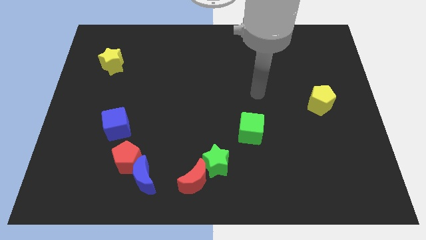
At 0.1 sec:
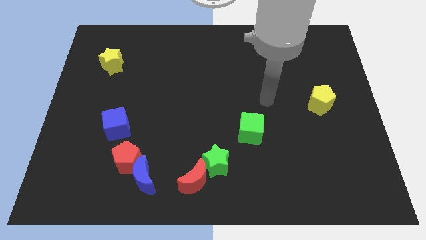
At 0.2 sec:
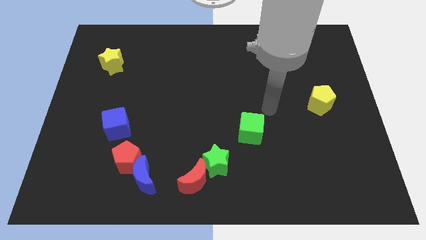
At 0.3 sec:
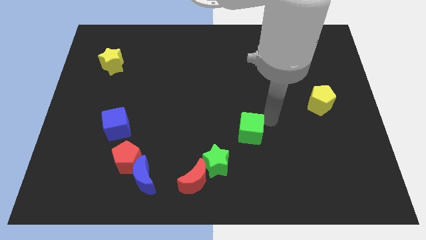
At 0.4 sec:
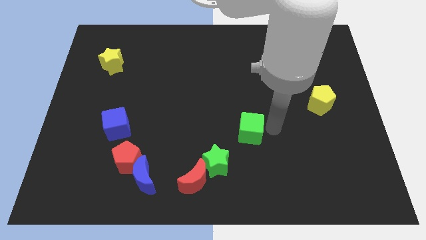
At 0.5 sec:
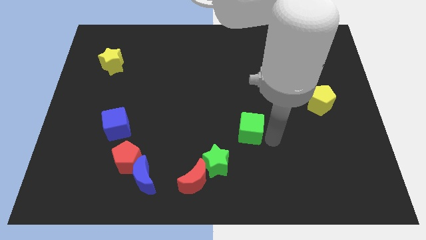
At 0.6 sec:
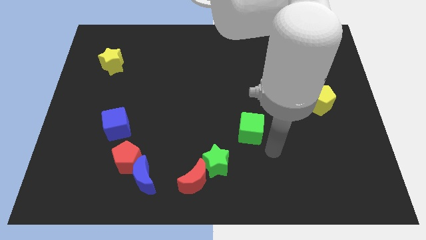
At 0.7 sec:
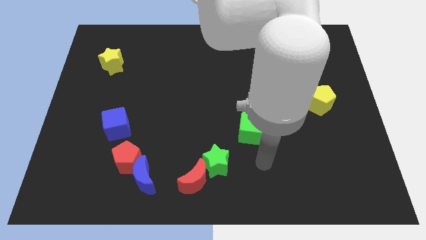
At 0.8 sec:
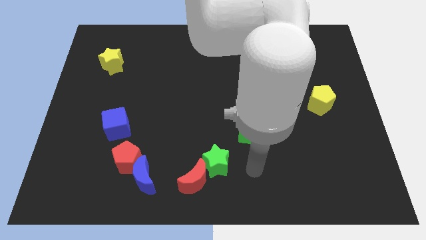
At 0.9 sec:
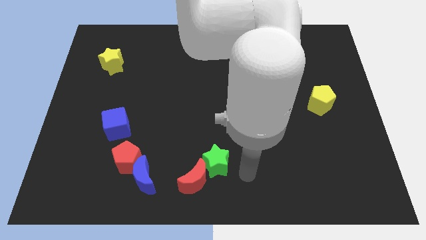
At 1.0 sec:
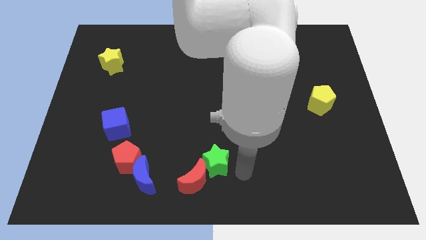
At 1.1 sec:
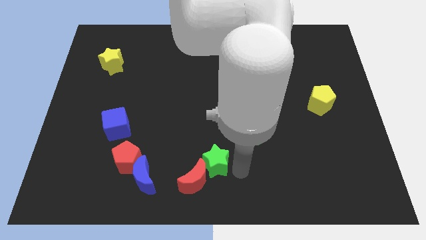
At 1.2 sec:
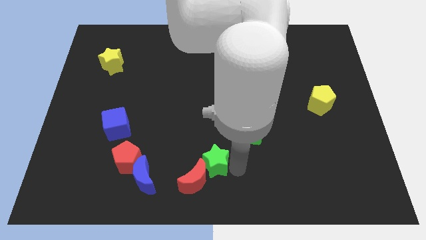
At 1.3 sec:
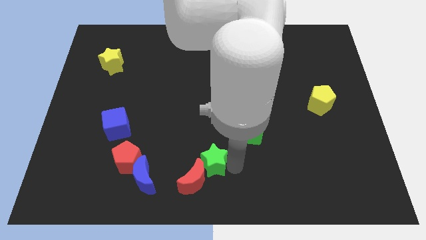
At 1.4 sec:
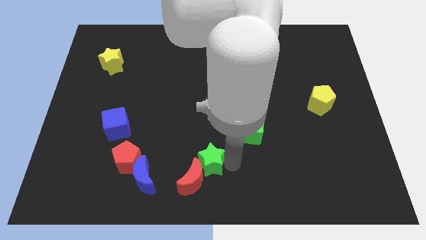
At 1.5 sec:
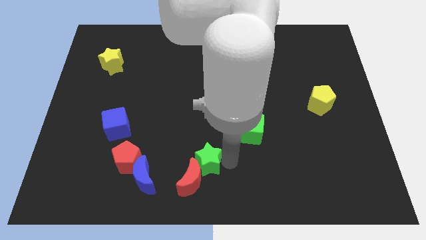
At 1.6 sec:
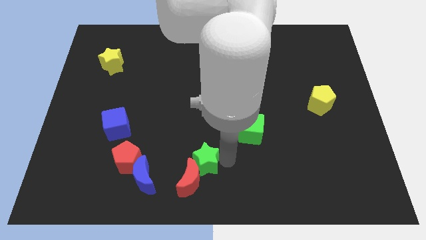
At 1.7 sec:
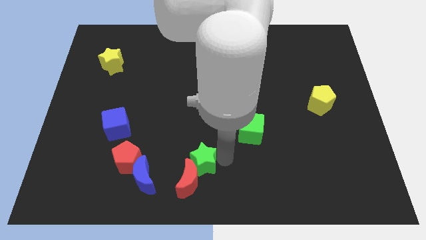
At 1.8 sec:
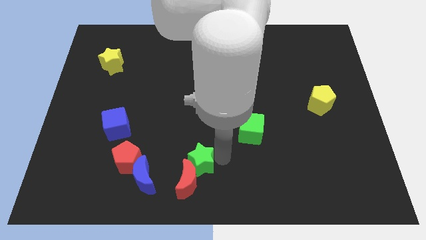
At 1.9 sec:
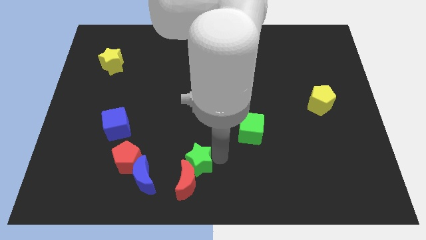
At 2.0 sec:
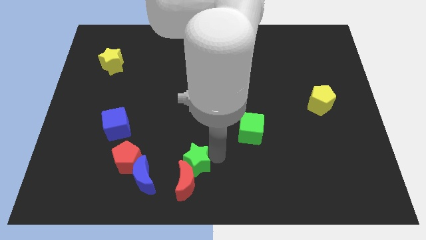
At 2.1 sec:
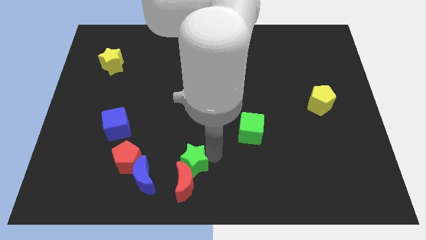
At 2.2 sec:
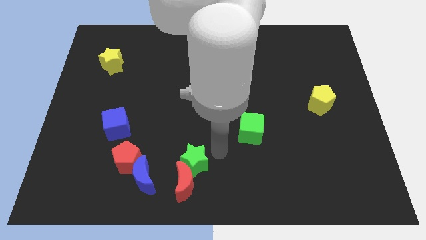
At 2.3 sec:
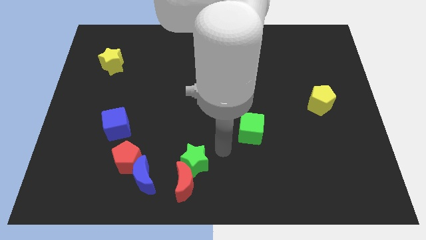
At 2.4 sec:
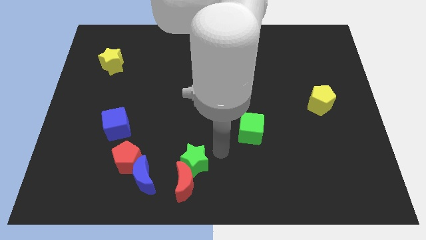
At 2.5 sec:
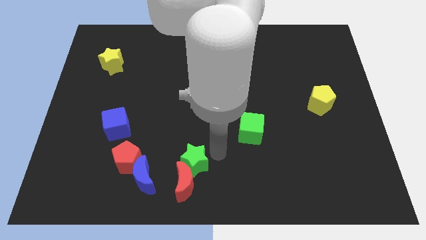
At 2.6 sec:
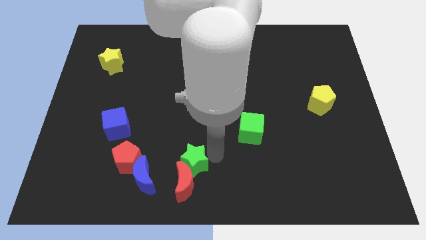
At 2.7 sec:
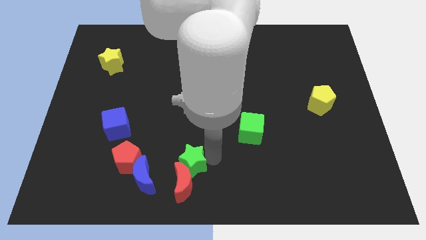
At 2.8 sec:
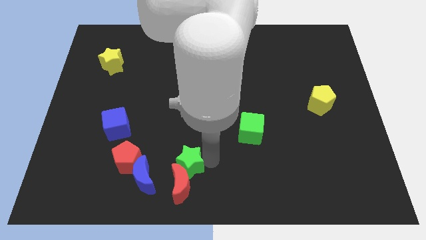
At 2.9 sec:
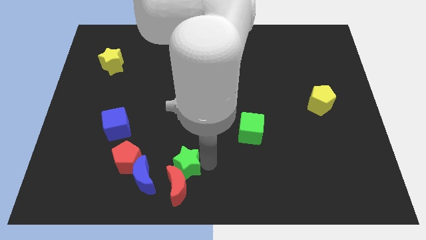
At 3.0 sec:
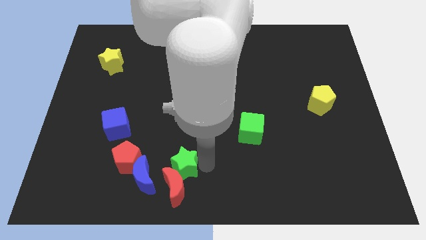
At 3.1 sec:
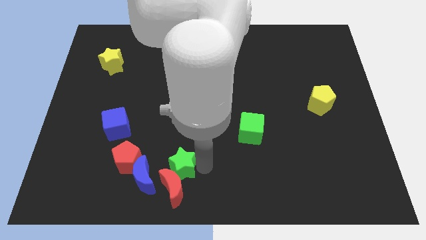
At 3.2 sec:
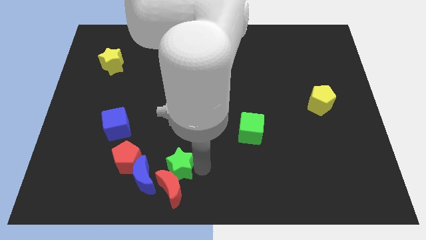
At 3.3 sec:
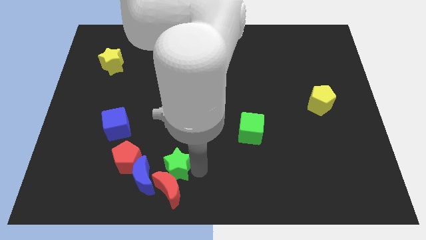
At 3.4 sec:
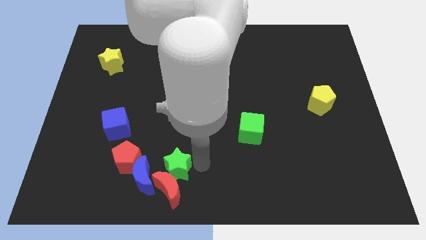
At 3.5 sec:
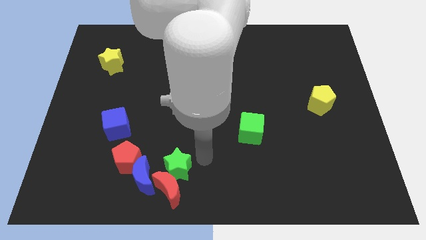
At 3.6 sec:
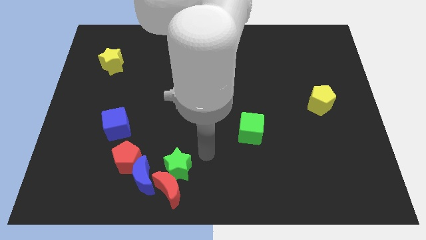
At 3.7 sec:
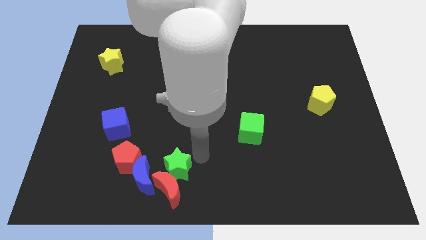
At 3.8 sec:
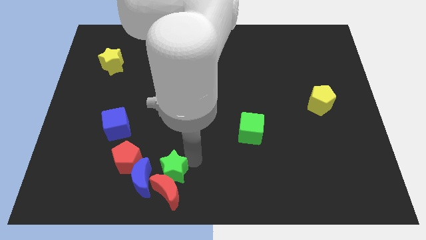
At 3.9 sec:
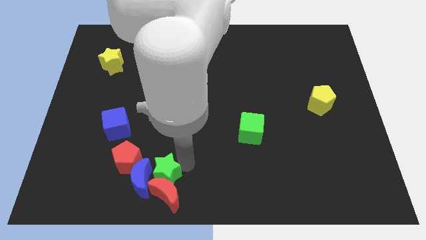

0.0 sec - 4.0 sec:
put the green star to the bottom right side of the red pentagon

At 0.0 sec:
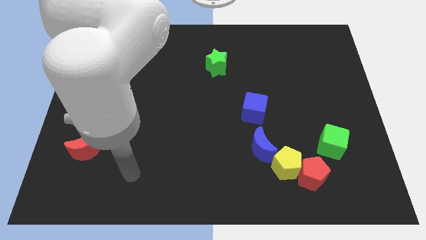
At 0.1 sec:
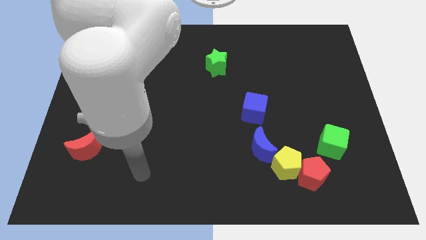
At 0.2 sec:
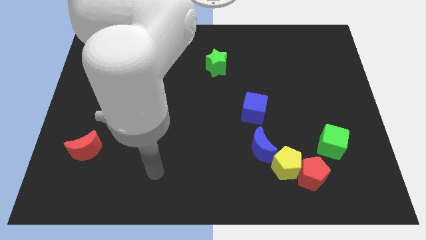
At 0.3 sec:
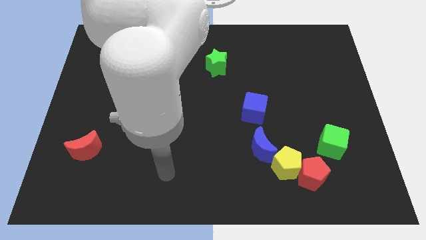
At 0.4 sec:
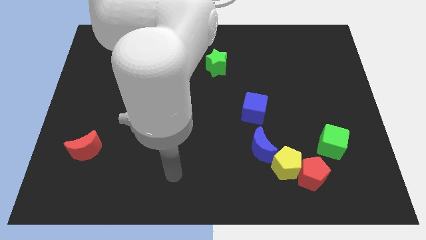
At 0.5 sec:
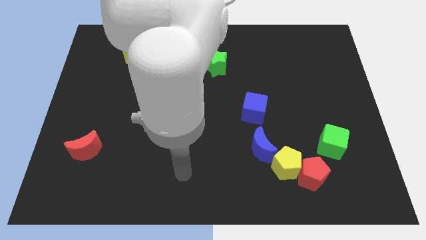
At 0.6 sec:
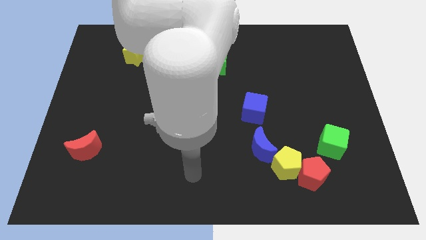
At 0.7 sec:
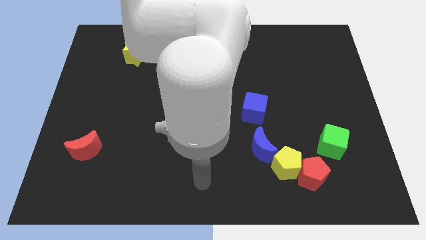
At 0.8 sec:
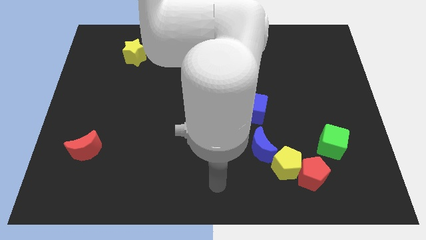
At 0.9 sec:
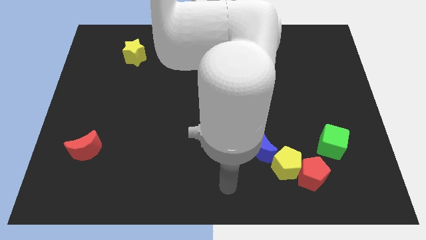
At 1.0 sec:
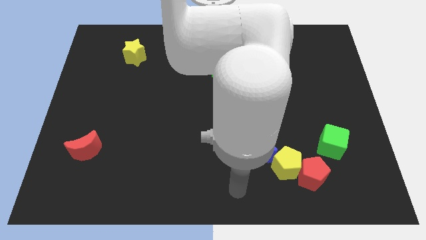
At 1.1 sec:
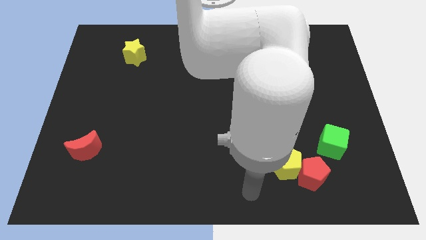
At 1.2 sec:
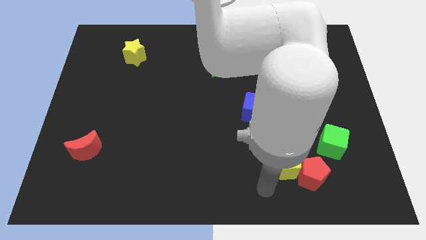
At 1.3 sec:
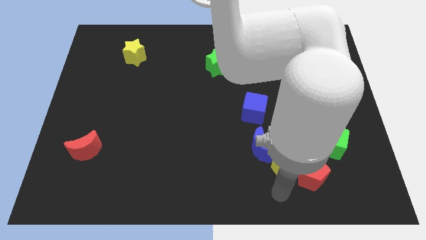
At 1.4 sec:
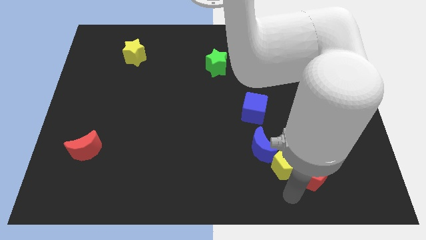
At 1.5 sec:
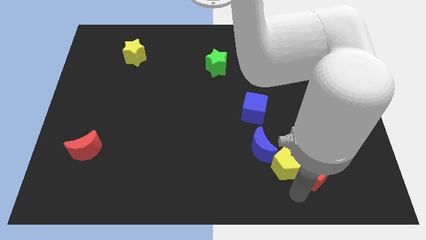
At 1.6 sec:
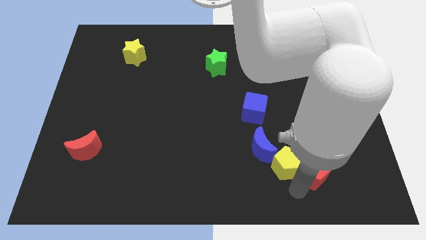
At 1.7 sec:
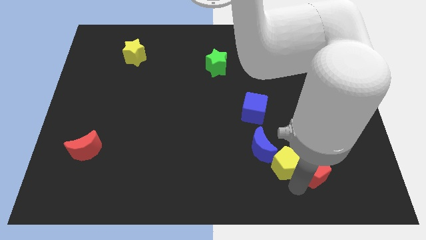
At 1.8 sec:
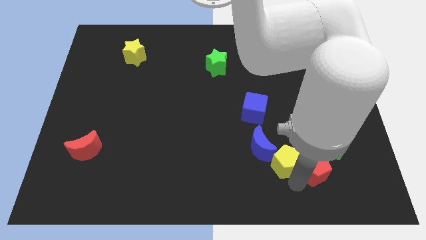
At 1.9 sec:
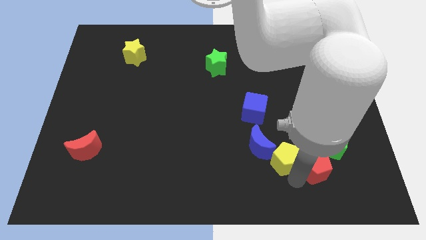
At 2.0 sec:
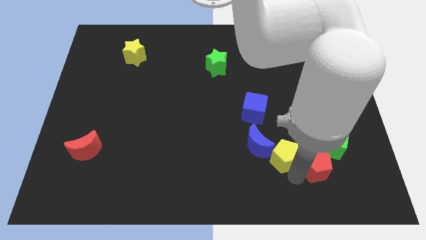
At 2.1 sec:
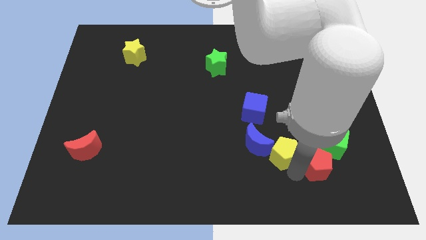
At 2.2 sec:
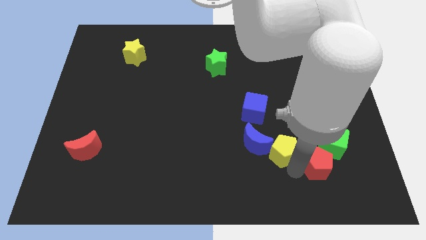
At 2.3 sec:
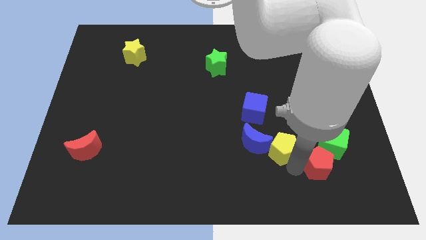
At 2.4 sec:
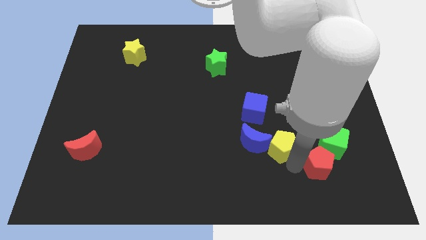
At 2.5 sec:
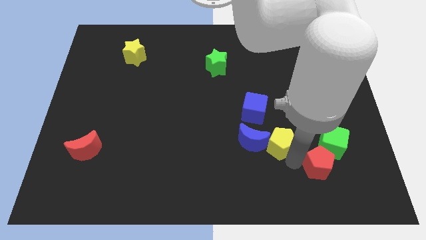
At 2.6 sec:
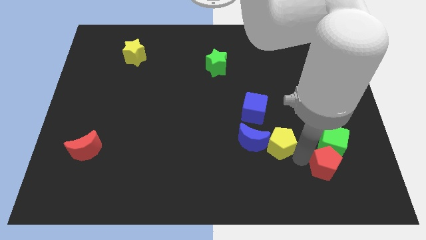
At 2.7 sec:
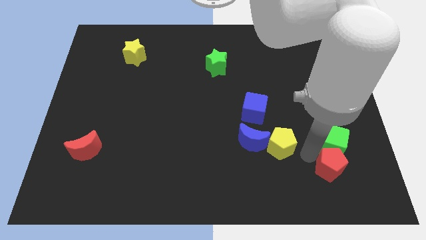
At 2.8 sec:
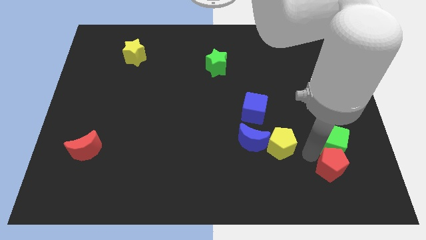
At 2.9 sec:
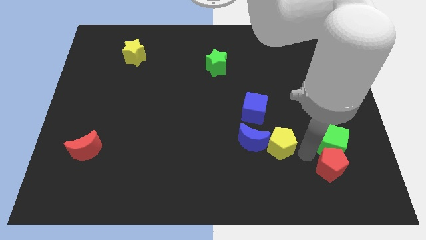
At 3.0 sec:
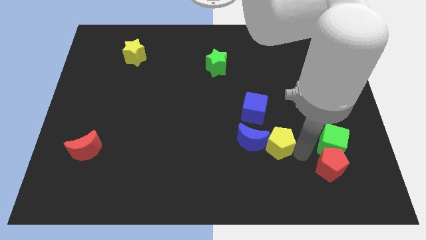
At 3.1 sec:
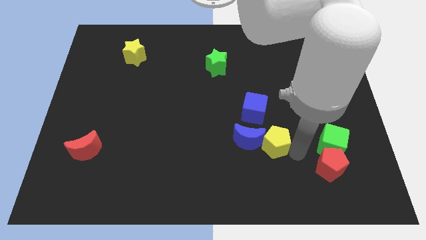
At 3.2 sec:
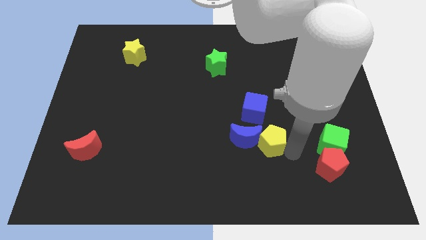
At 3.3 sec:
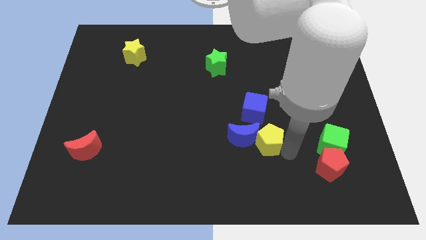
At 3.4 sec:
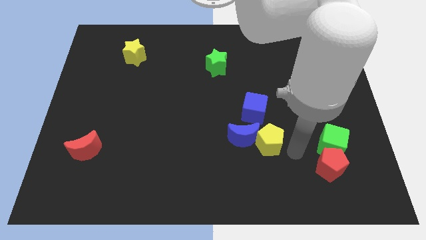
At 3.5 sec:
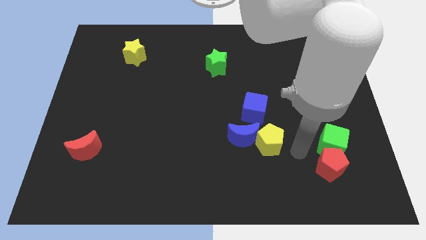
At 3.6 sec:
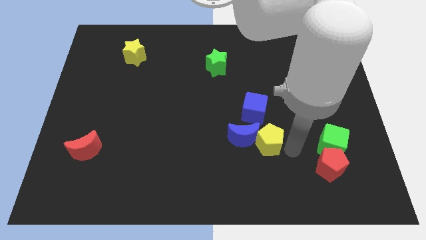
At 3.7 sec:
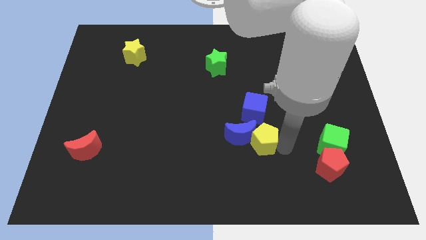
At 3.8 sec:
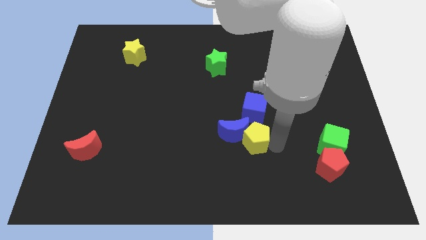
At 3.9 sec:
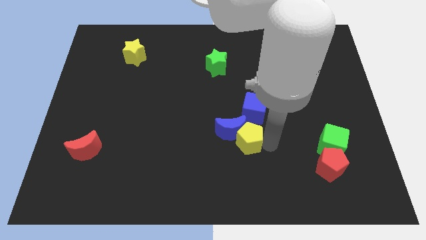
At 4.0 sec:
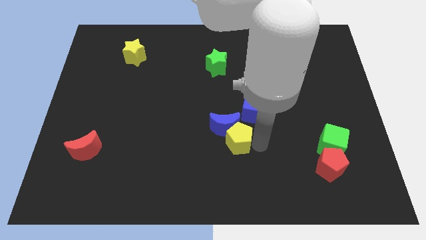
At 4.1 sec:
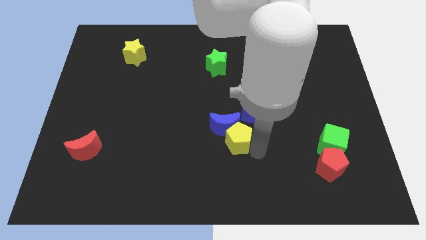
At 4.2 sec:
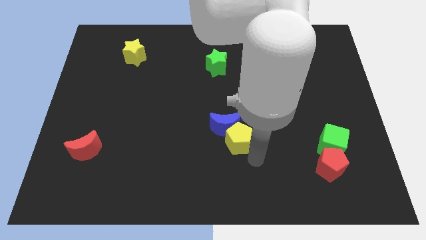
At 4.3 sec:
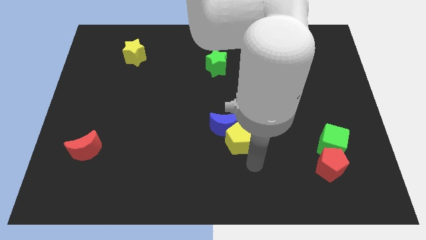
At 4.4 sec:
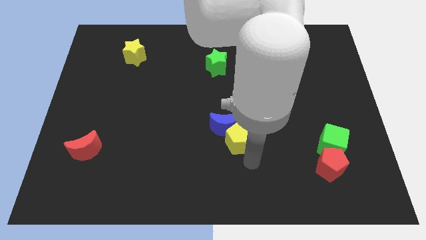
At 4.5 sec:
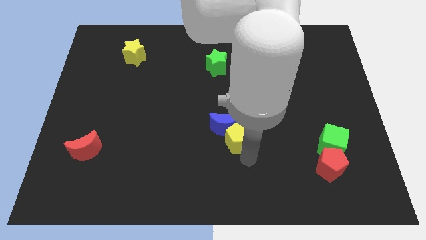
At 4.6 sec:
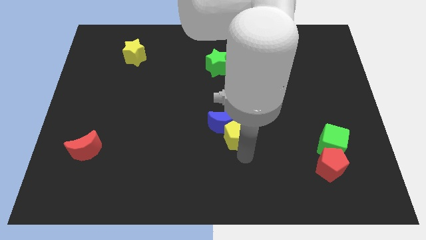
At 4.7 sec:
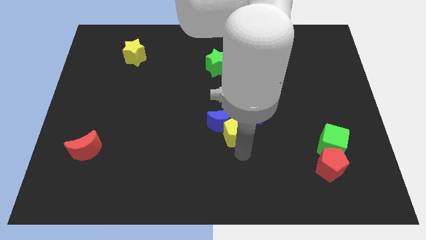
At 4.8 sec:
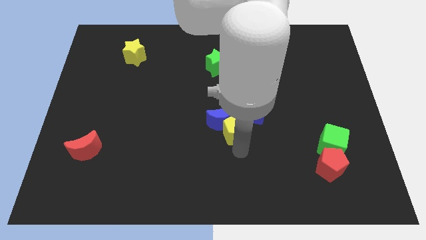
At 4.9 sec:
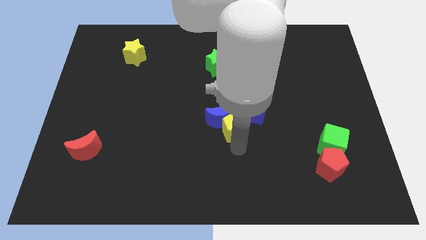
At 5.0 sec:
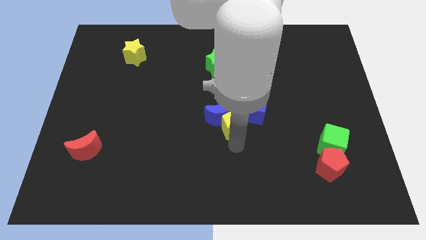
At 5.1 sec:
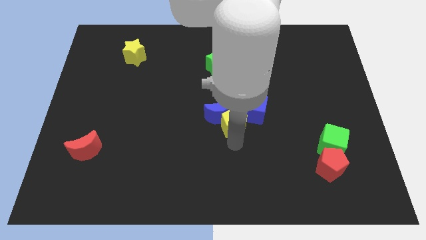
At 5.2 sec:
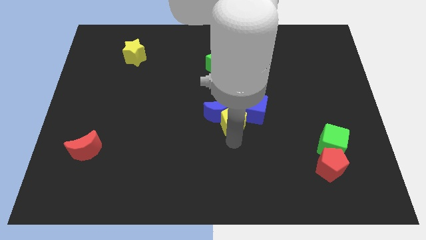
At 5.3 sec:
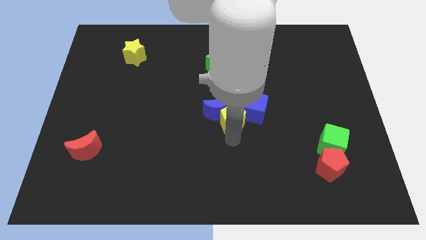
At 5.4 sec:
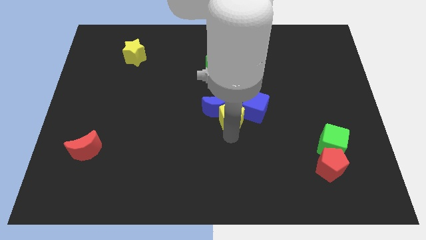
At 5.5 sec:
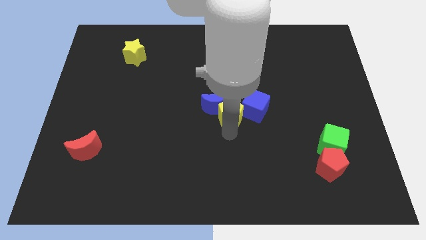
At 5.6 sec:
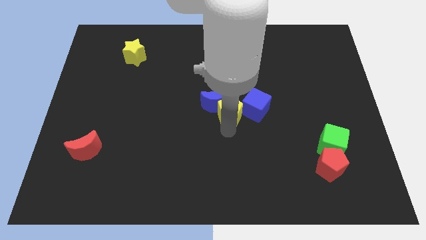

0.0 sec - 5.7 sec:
move the yellow pentagon to the bottom side of the green star
